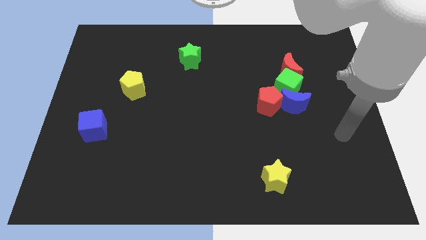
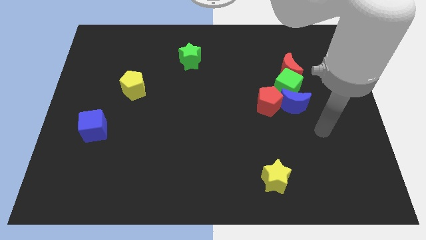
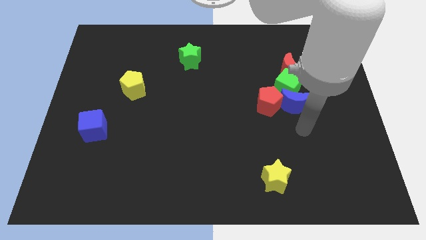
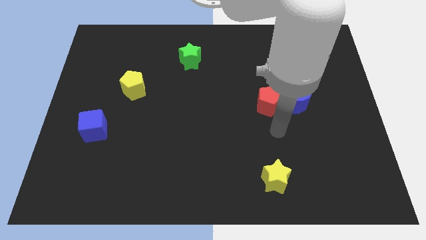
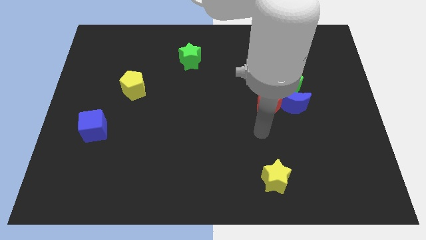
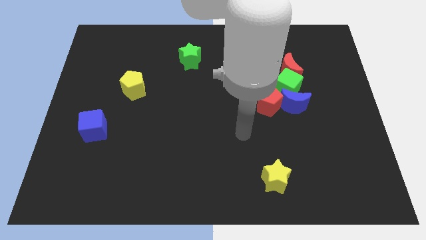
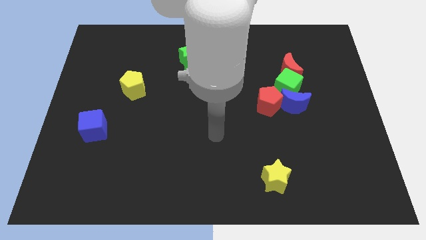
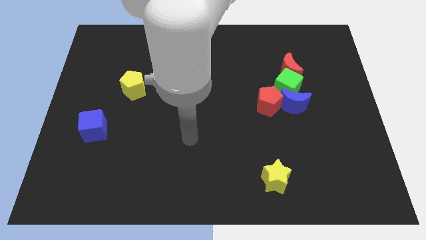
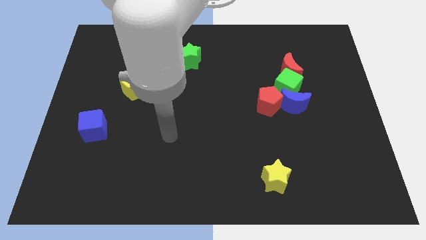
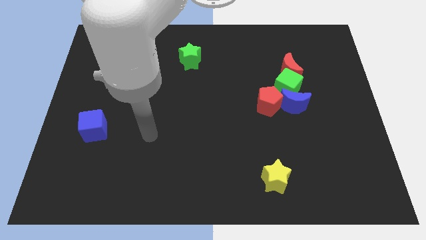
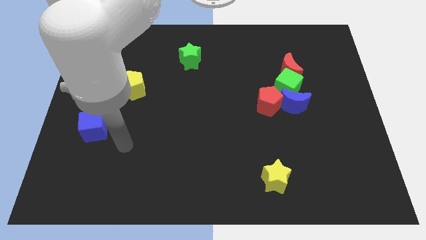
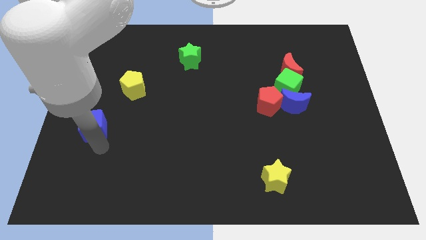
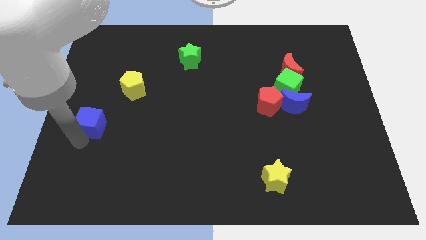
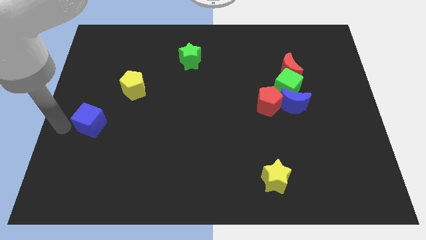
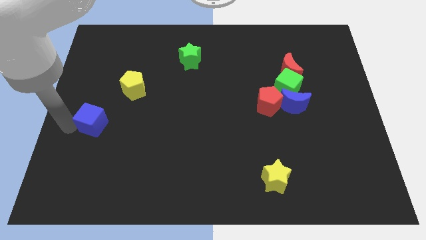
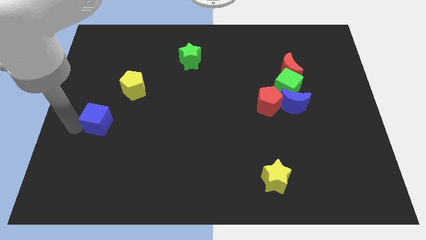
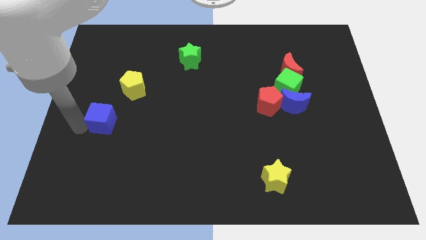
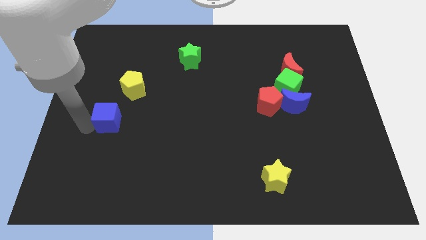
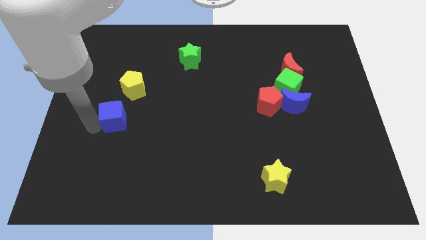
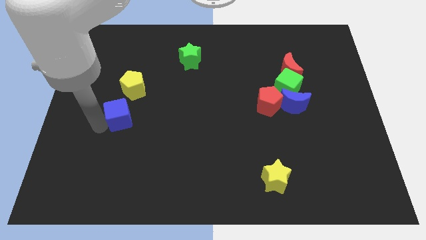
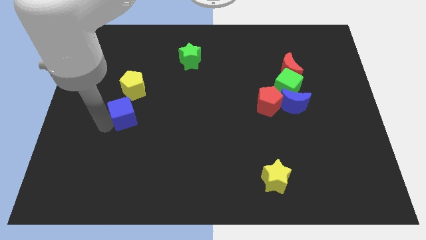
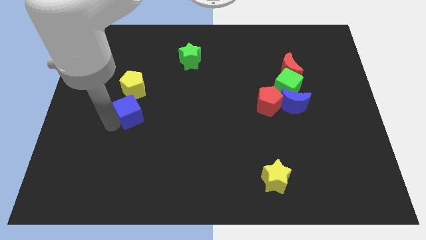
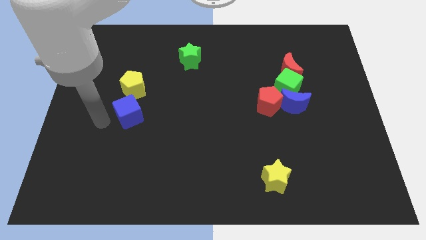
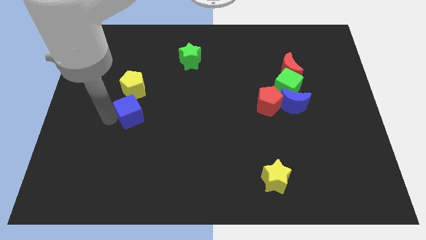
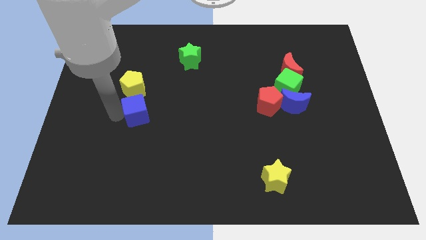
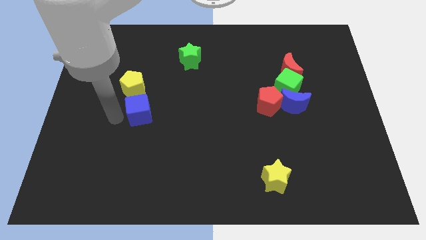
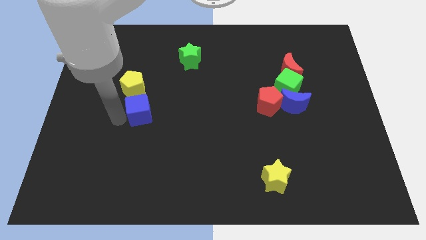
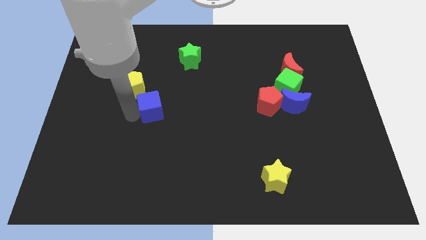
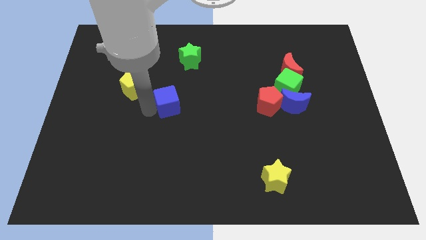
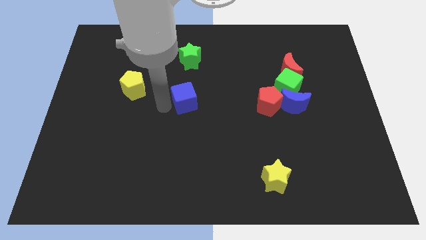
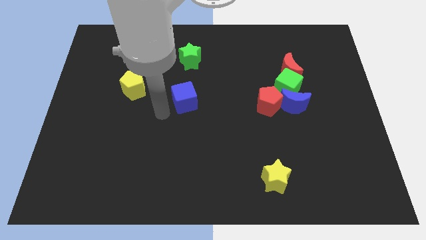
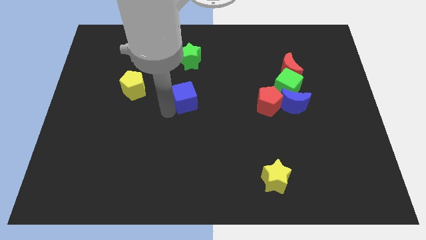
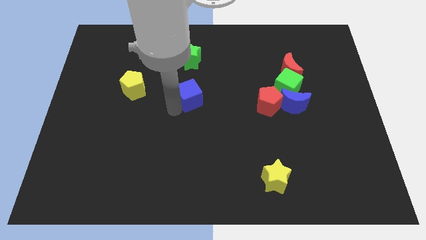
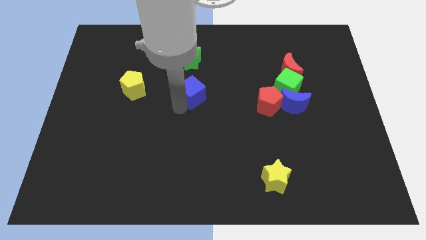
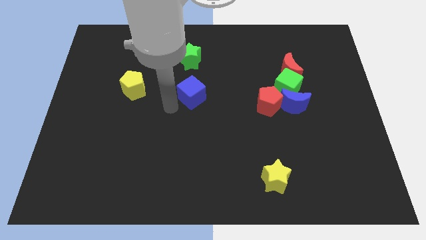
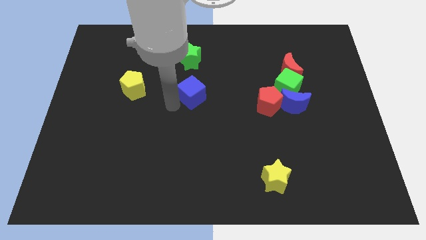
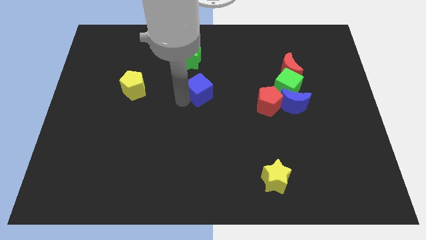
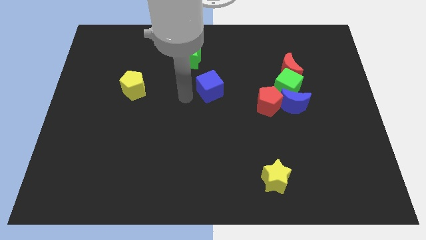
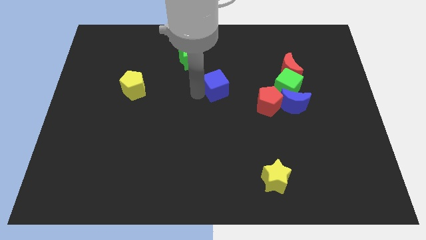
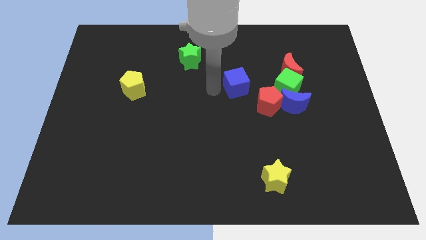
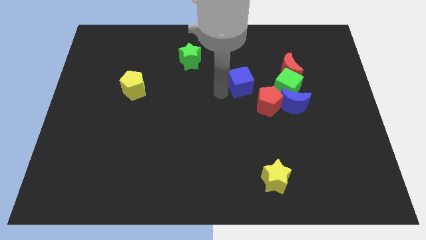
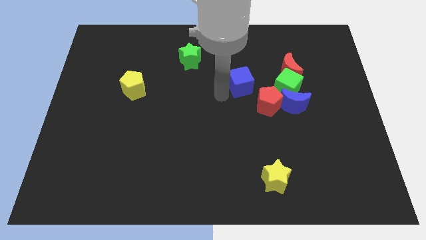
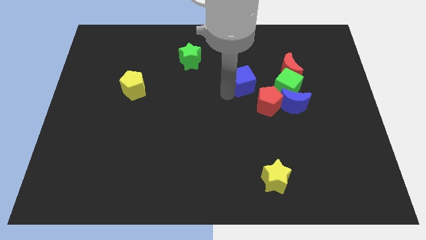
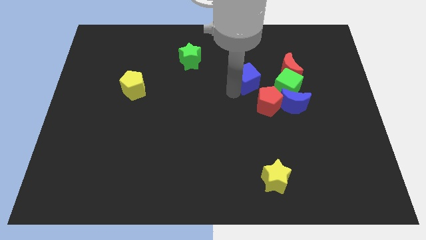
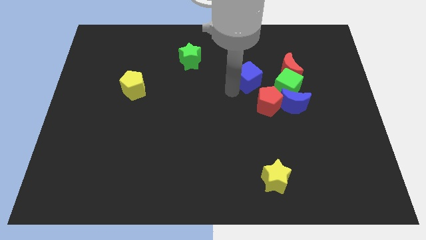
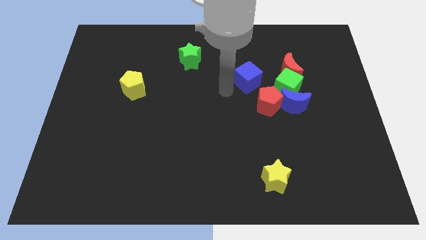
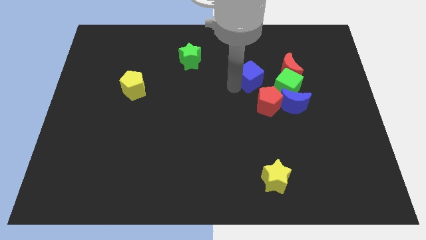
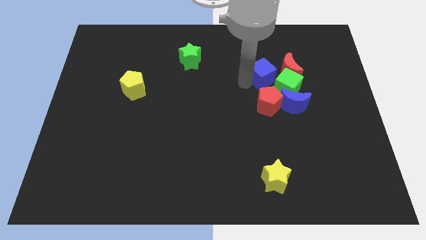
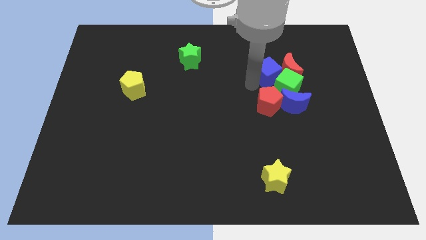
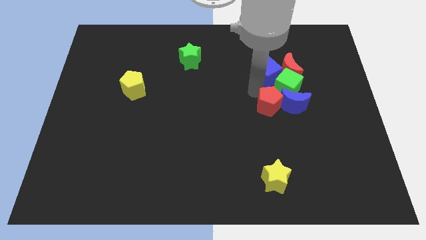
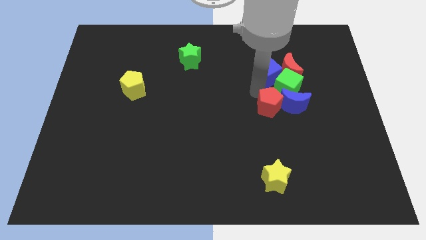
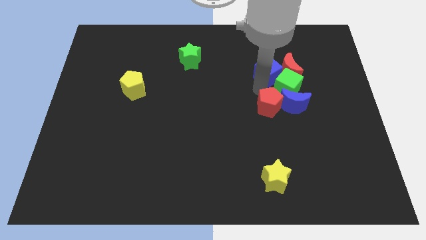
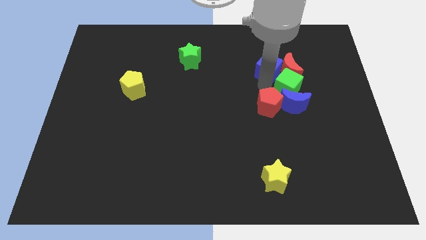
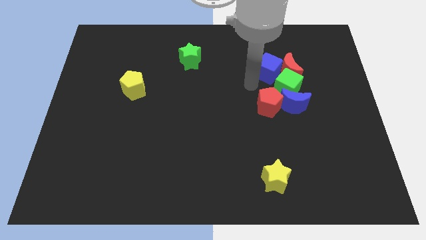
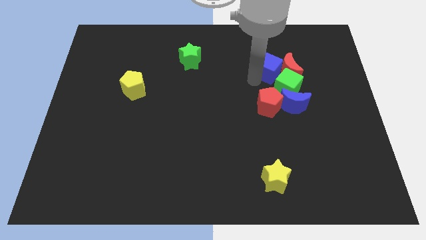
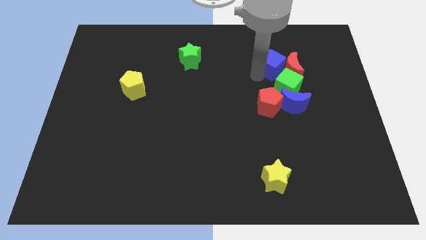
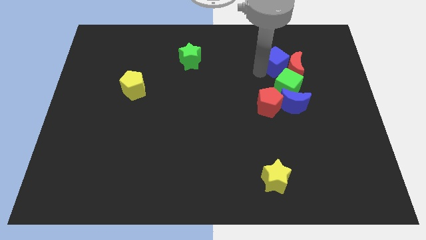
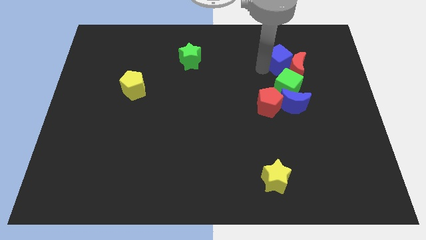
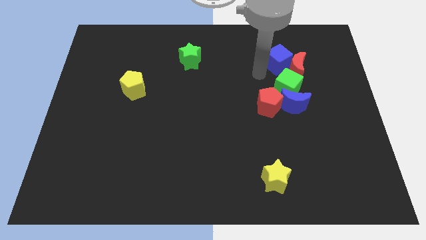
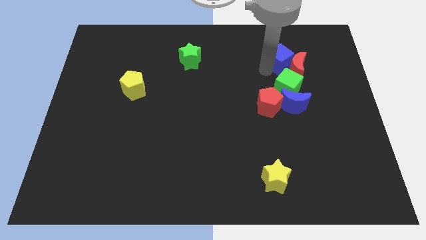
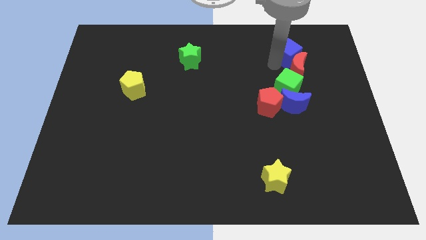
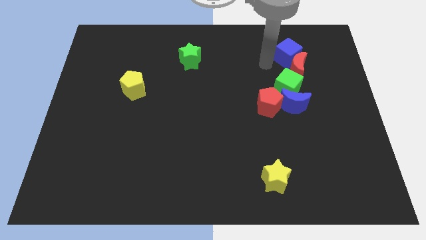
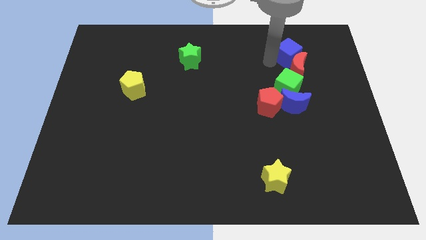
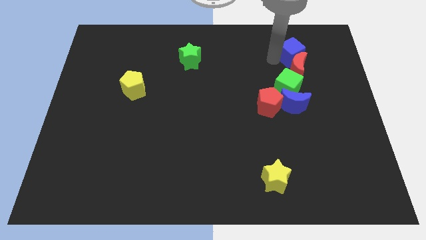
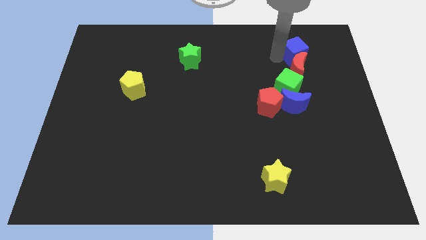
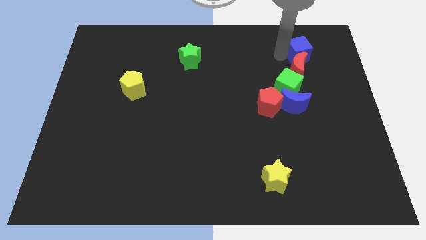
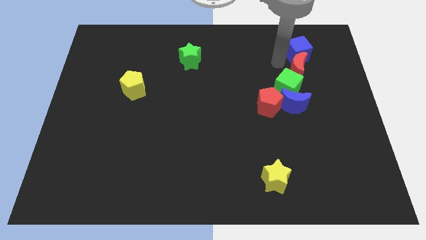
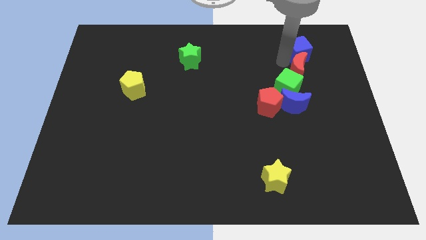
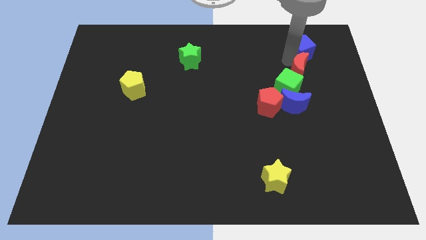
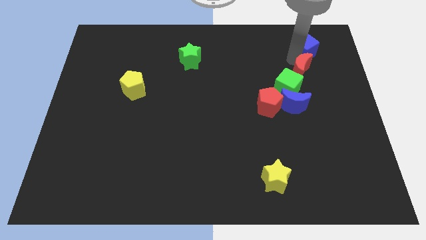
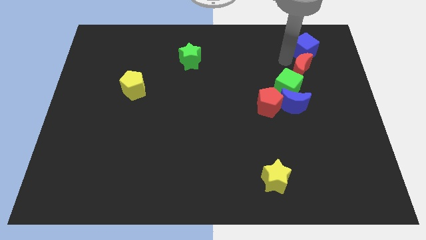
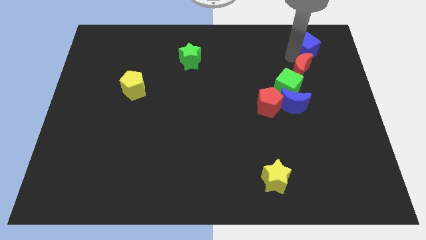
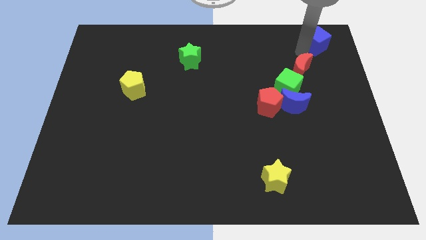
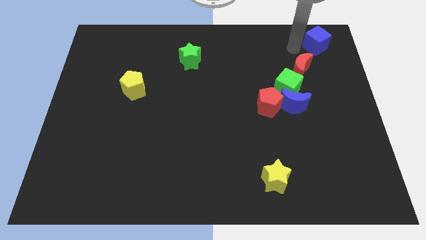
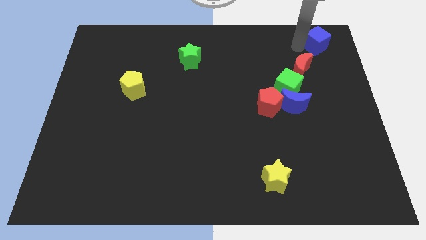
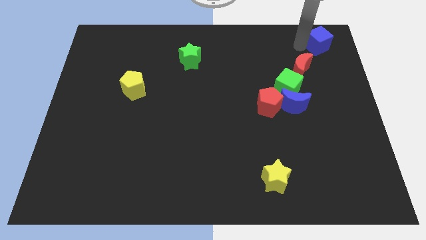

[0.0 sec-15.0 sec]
put the blue cube to the top right

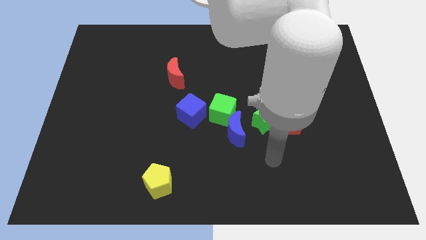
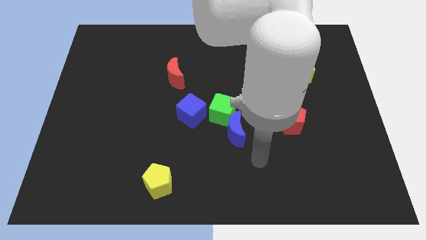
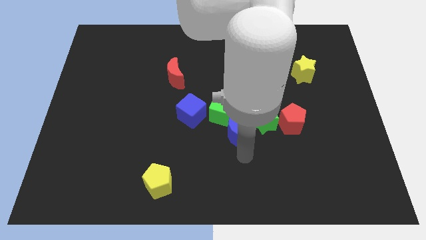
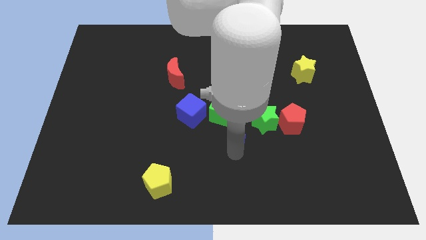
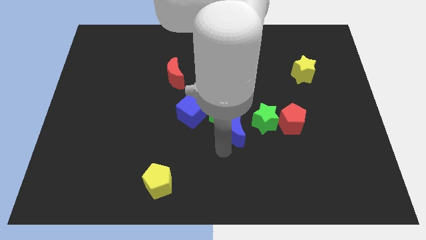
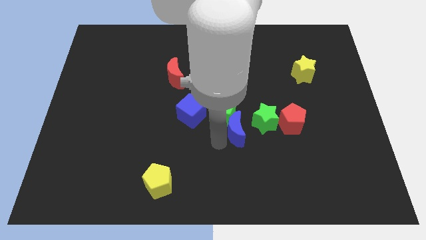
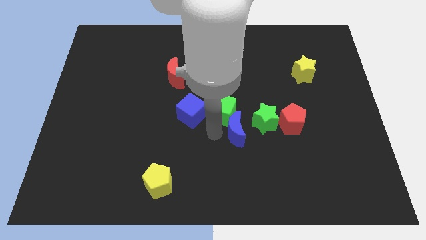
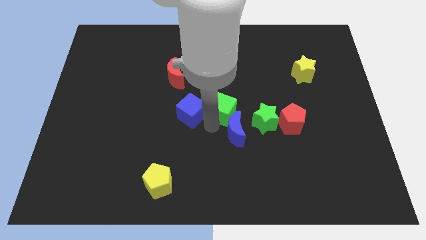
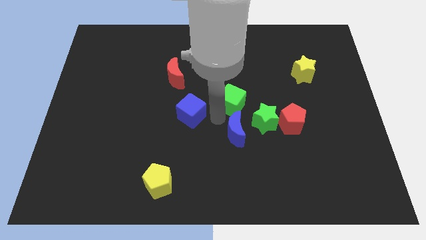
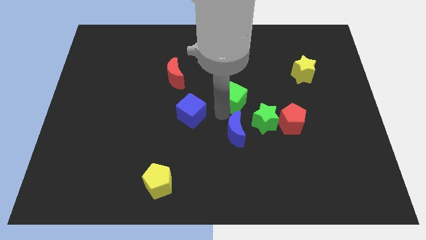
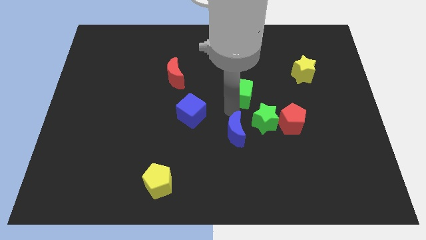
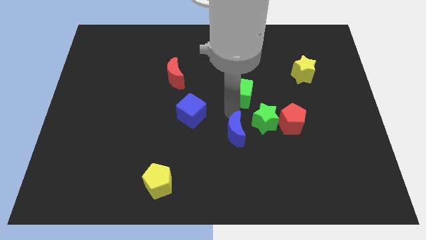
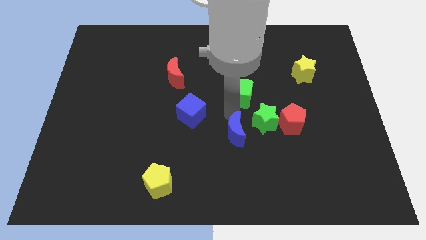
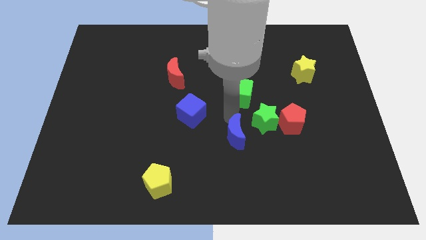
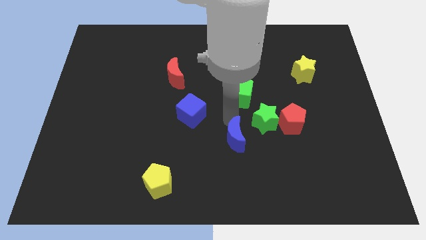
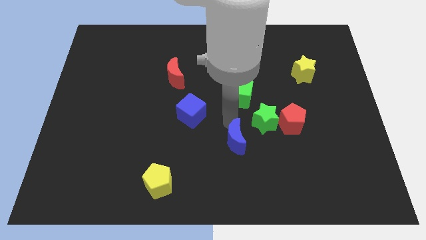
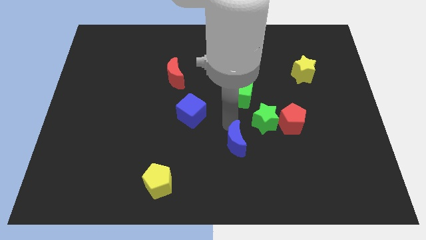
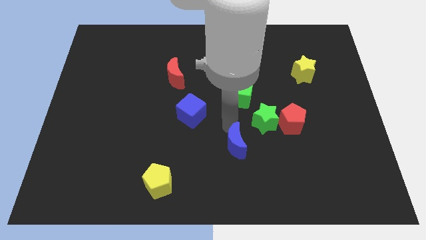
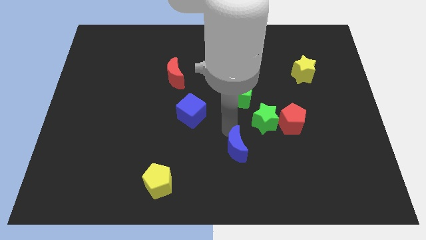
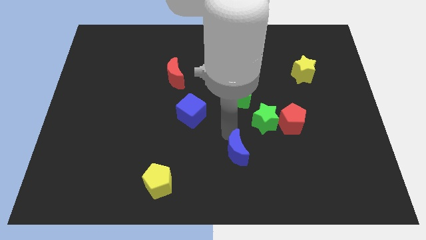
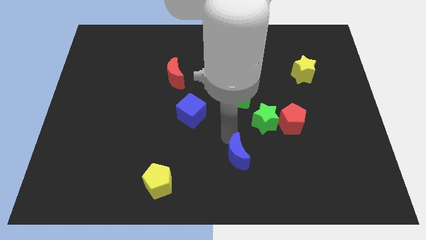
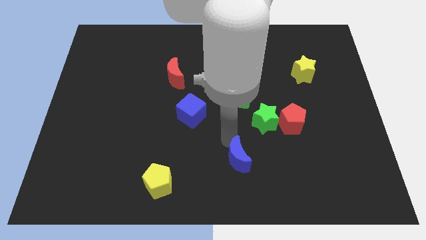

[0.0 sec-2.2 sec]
put the blue moon to the bottom side
